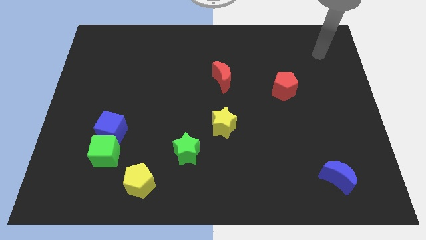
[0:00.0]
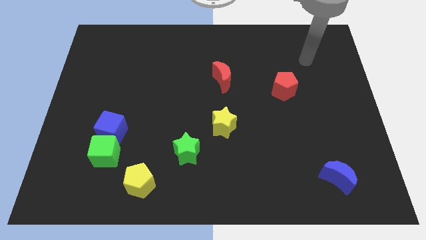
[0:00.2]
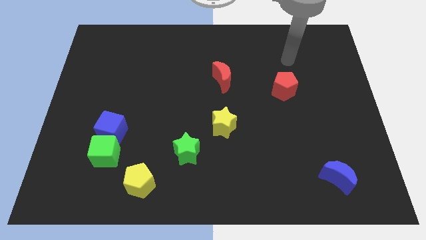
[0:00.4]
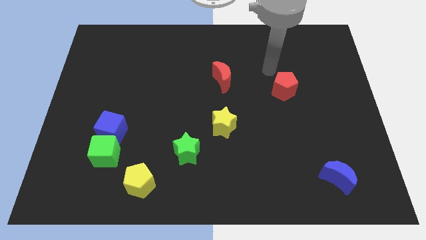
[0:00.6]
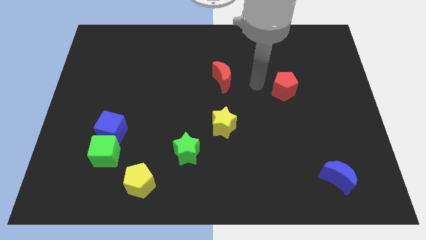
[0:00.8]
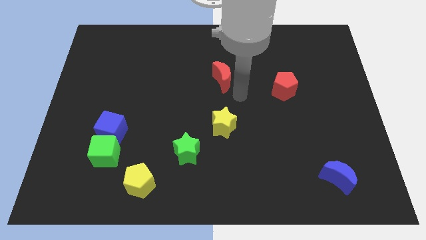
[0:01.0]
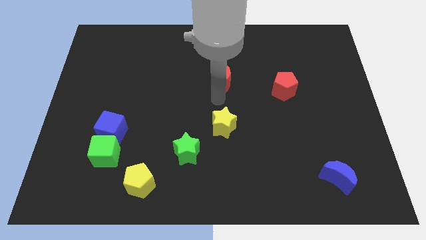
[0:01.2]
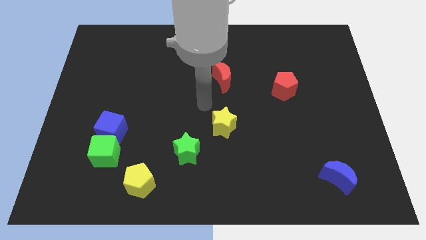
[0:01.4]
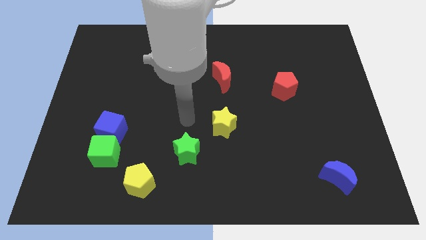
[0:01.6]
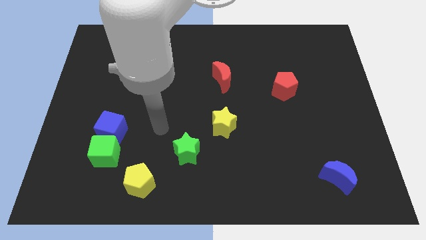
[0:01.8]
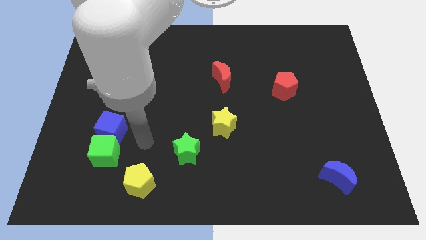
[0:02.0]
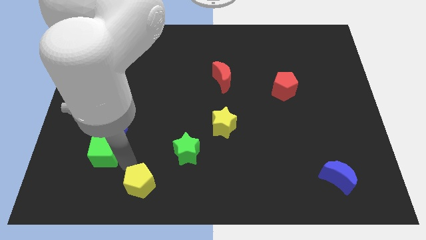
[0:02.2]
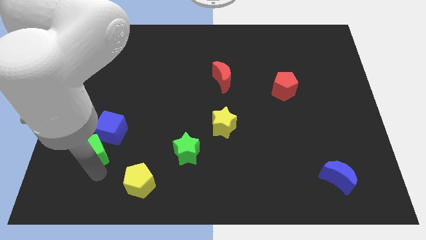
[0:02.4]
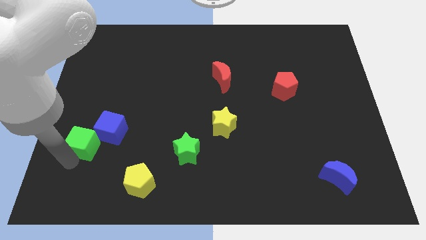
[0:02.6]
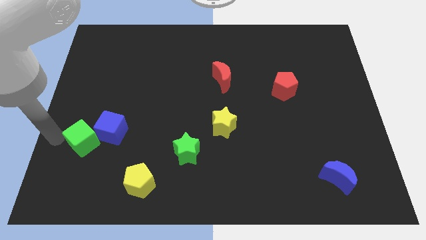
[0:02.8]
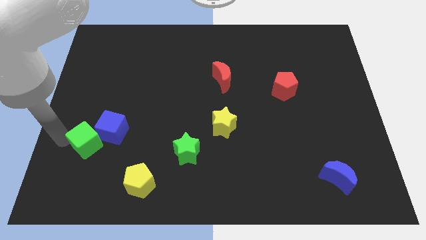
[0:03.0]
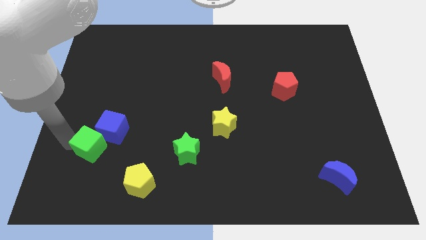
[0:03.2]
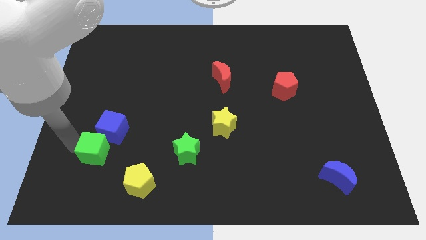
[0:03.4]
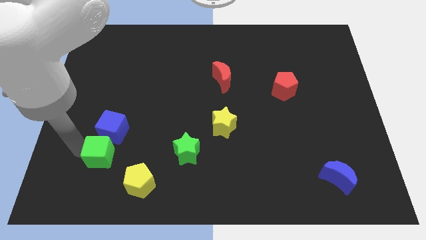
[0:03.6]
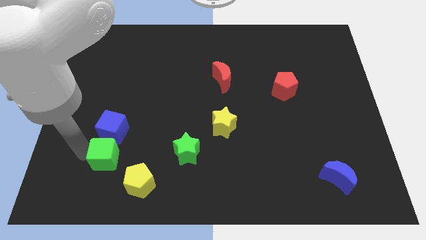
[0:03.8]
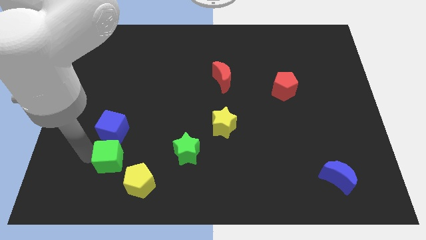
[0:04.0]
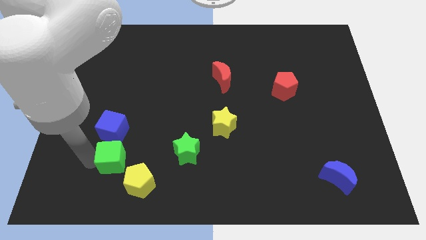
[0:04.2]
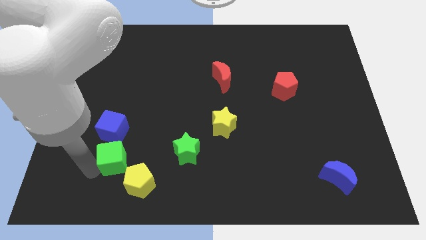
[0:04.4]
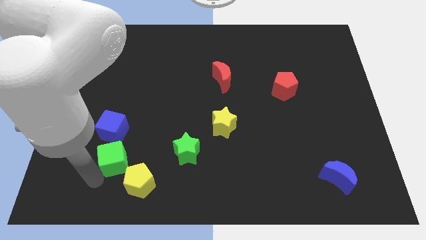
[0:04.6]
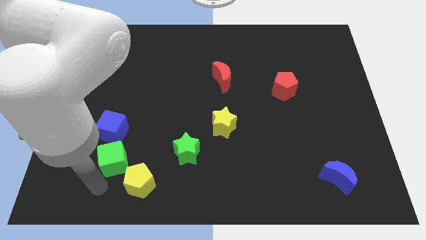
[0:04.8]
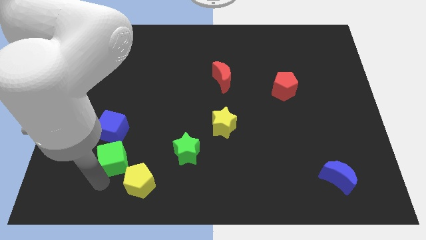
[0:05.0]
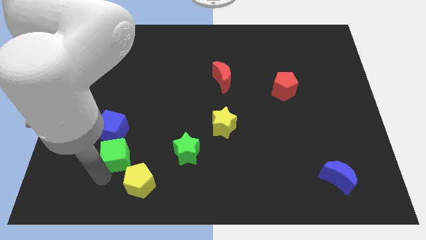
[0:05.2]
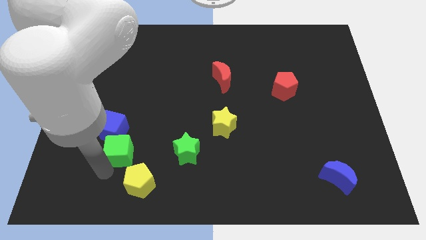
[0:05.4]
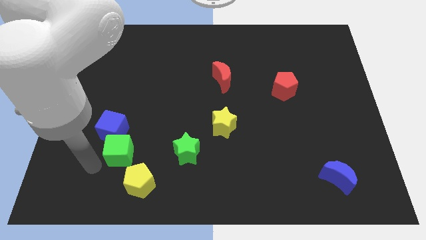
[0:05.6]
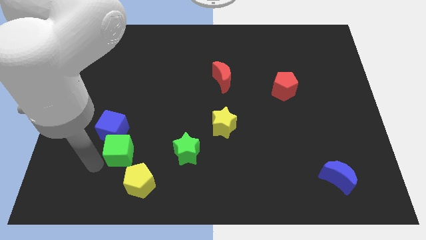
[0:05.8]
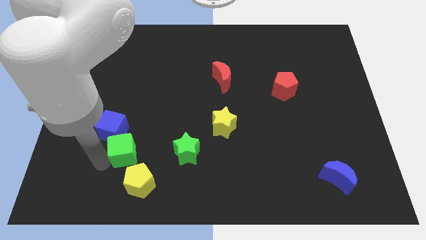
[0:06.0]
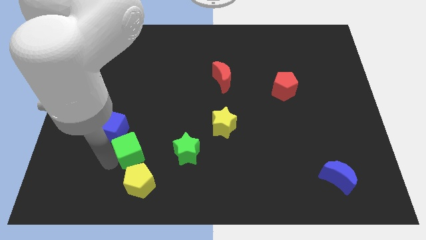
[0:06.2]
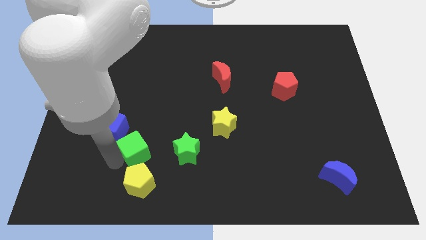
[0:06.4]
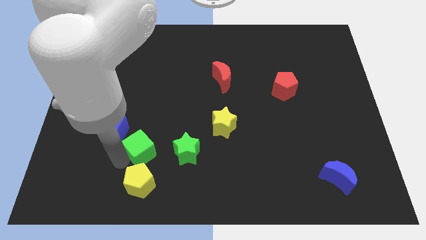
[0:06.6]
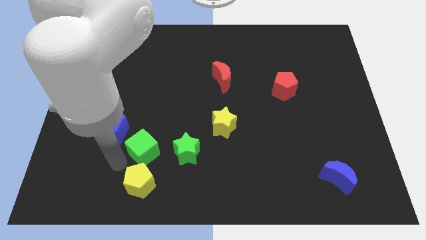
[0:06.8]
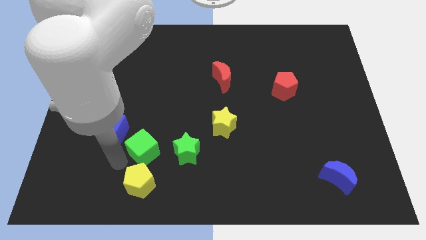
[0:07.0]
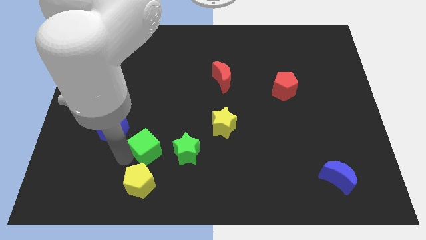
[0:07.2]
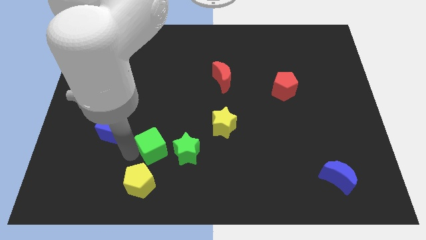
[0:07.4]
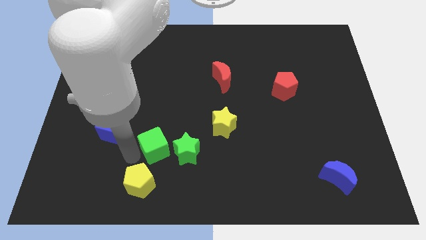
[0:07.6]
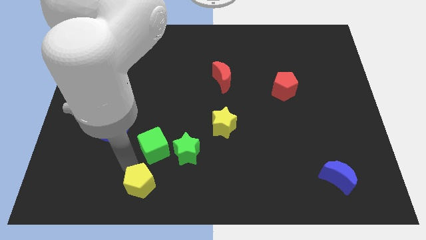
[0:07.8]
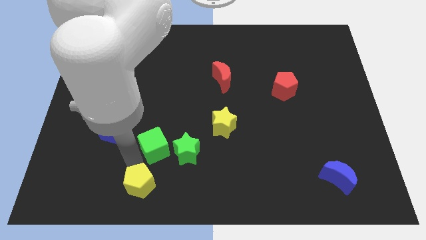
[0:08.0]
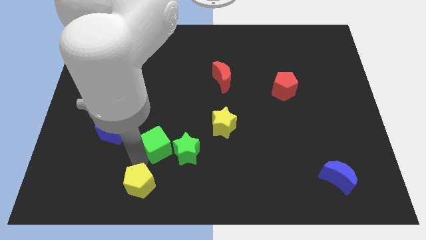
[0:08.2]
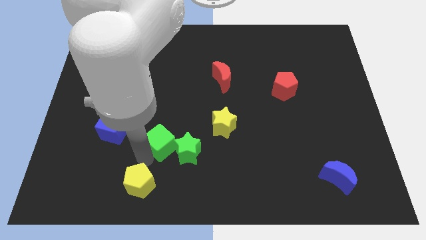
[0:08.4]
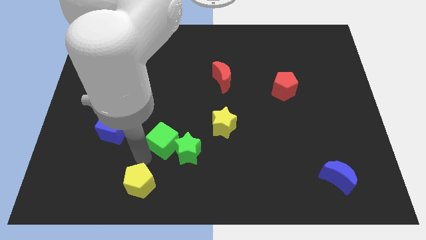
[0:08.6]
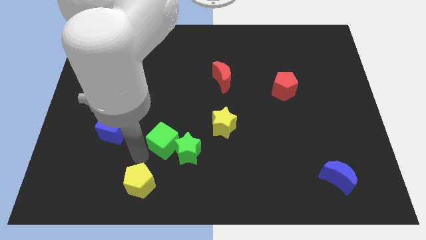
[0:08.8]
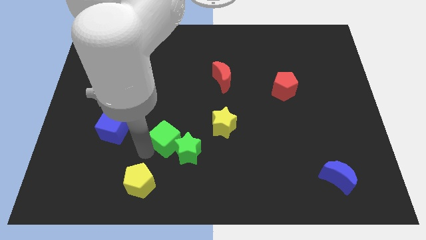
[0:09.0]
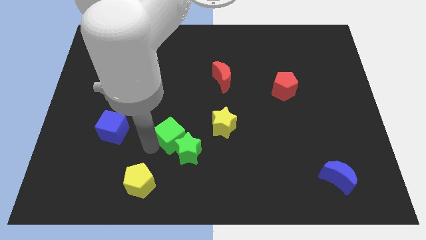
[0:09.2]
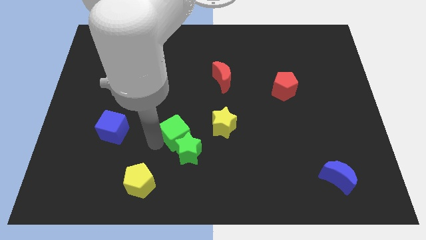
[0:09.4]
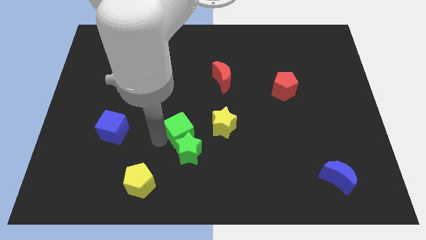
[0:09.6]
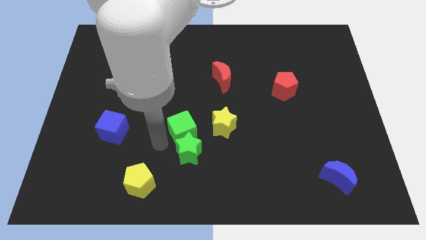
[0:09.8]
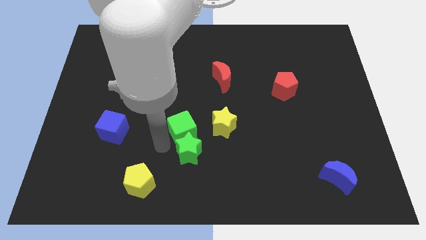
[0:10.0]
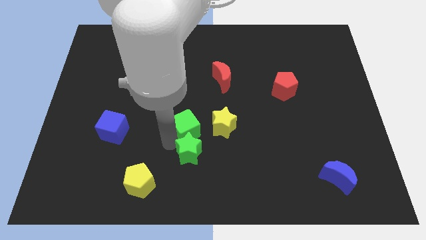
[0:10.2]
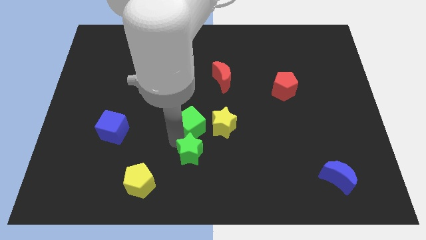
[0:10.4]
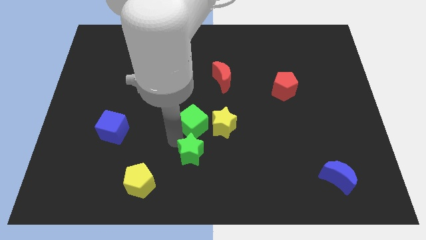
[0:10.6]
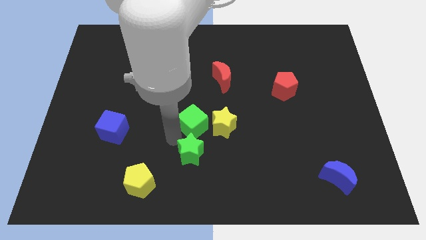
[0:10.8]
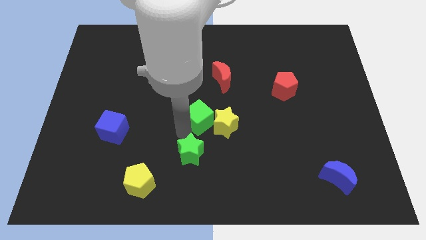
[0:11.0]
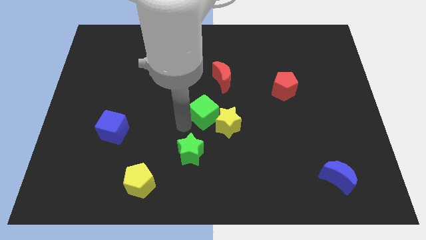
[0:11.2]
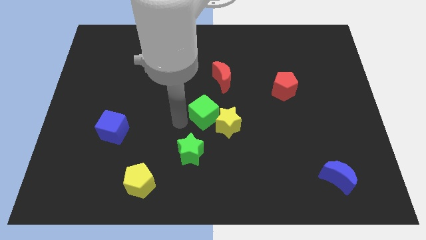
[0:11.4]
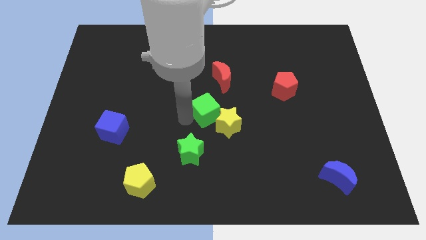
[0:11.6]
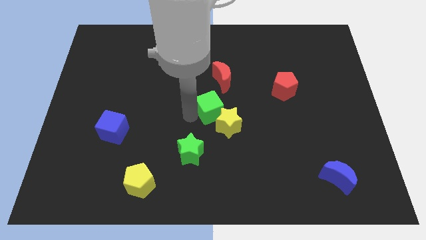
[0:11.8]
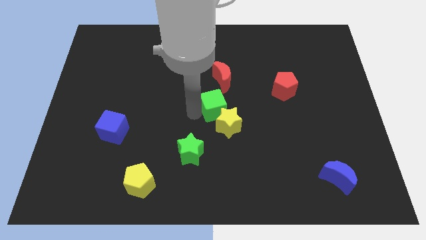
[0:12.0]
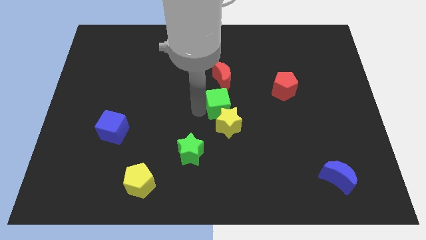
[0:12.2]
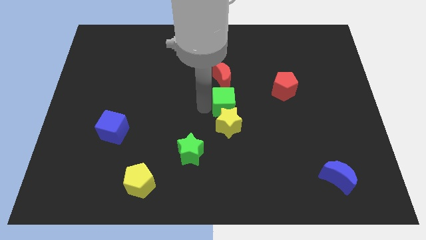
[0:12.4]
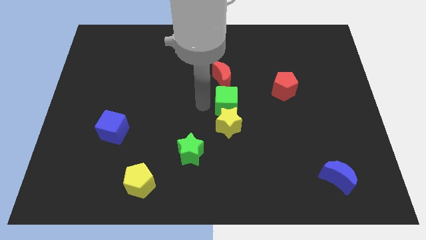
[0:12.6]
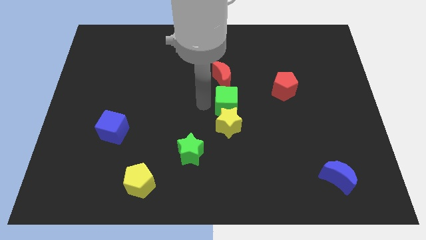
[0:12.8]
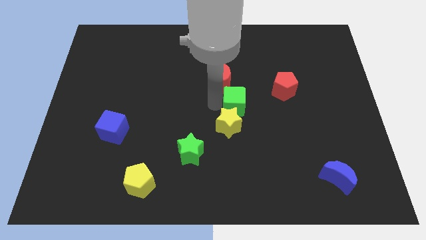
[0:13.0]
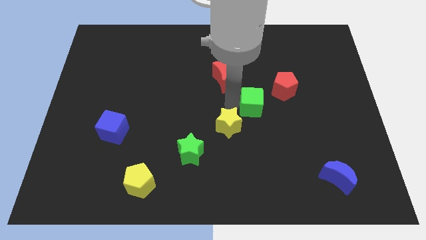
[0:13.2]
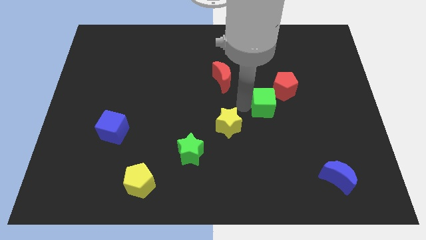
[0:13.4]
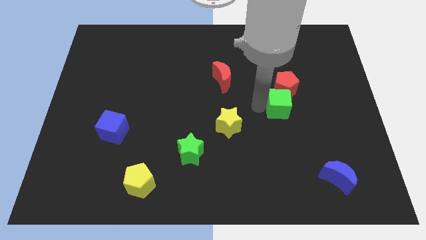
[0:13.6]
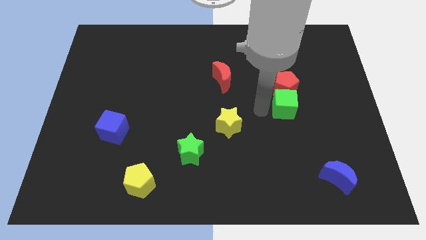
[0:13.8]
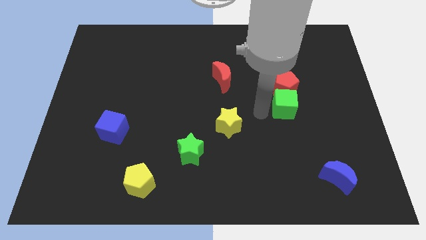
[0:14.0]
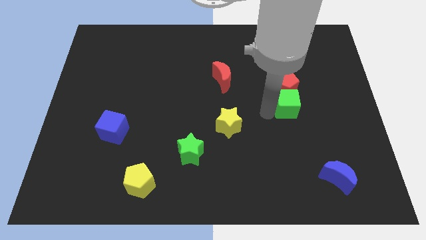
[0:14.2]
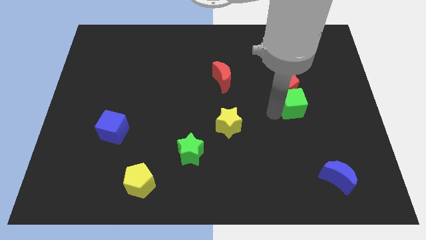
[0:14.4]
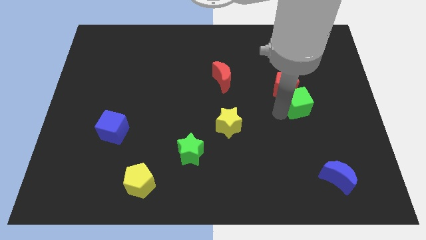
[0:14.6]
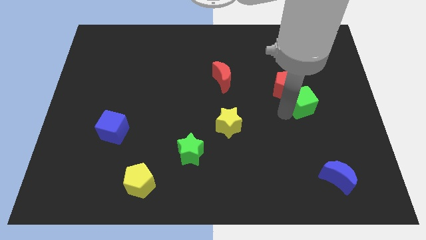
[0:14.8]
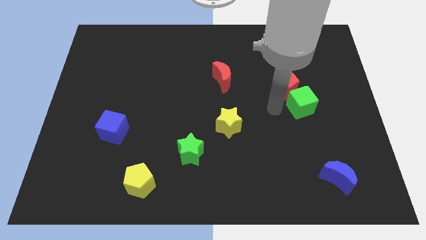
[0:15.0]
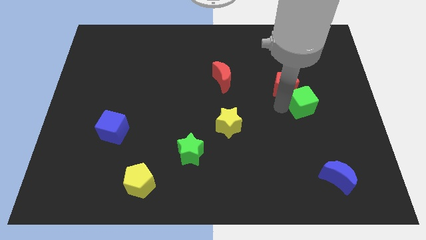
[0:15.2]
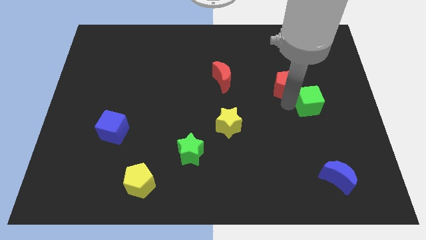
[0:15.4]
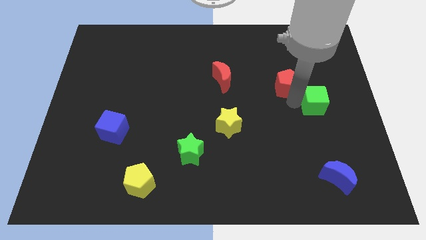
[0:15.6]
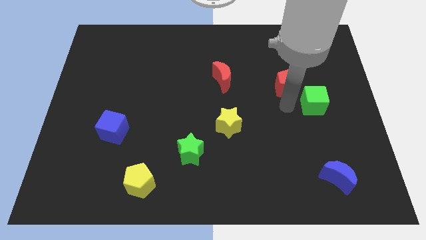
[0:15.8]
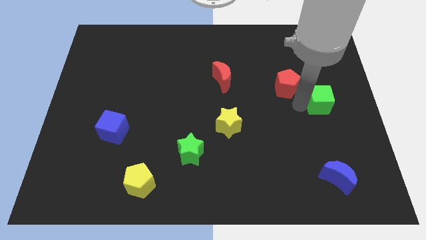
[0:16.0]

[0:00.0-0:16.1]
put the green cube to the right side
